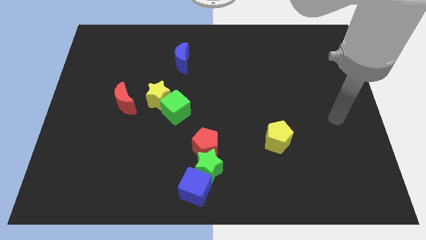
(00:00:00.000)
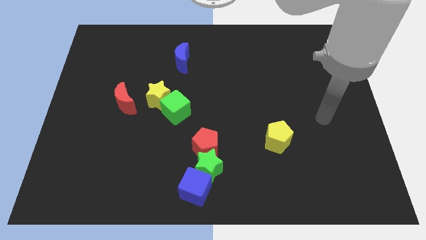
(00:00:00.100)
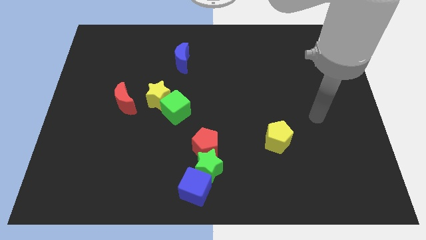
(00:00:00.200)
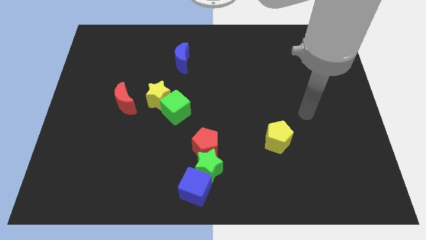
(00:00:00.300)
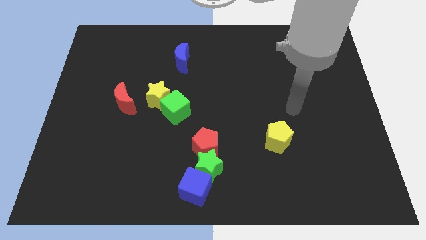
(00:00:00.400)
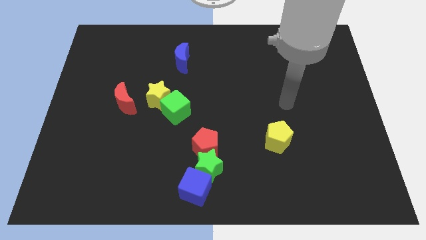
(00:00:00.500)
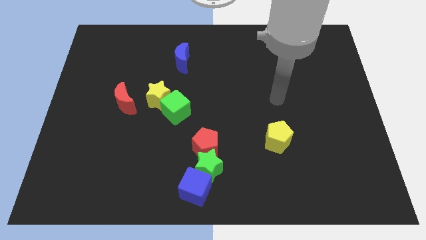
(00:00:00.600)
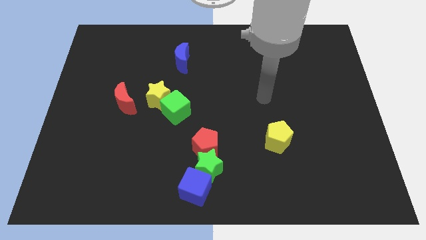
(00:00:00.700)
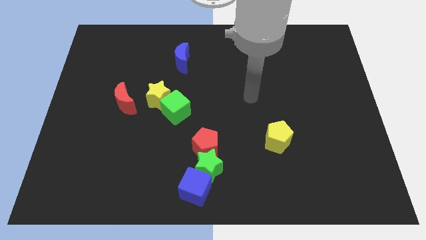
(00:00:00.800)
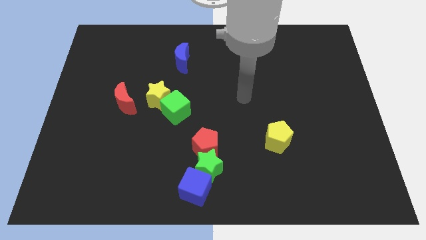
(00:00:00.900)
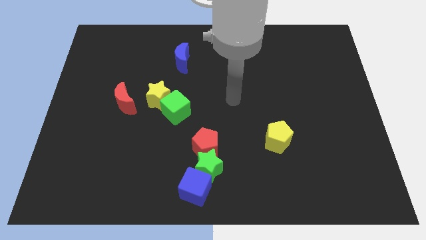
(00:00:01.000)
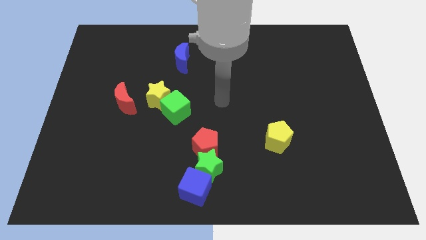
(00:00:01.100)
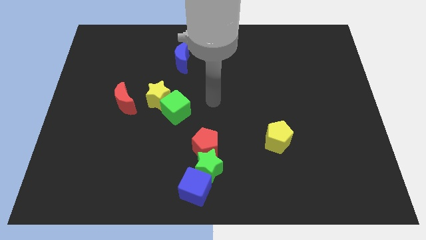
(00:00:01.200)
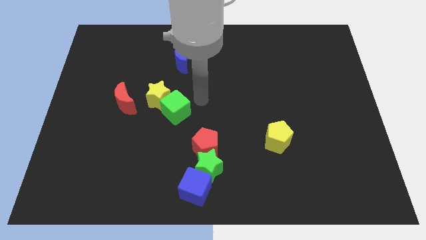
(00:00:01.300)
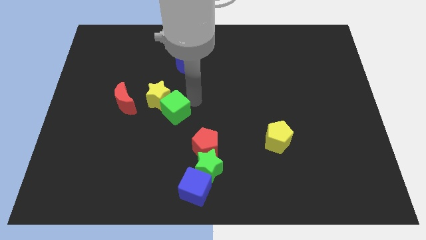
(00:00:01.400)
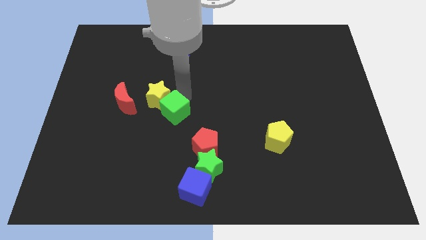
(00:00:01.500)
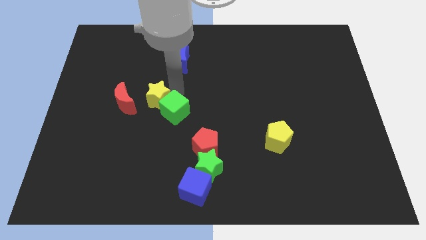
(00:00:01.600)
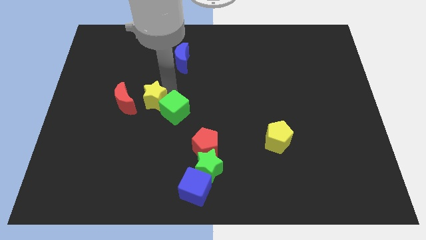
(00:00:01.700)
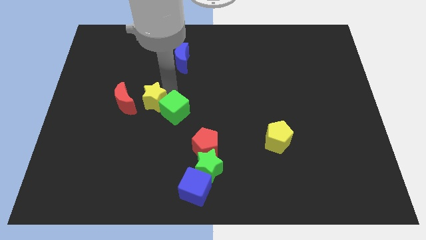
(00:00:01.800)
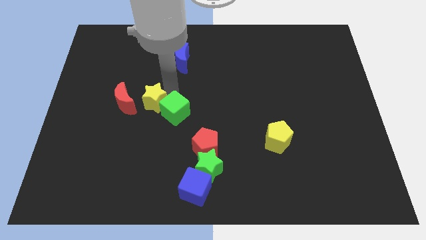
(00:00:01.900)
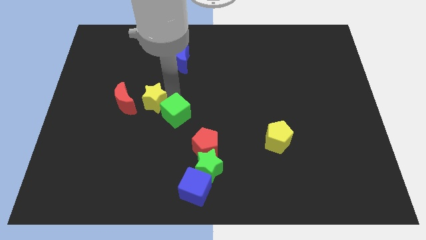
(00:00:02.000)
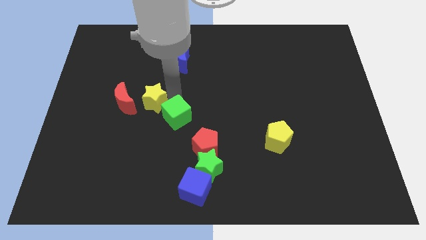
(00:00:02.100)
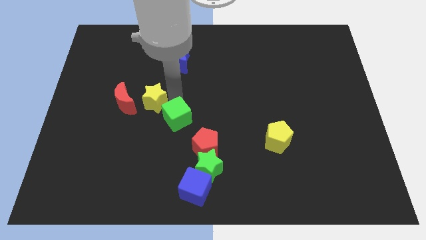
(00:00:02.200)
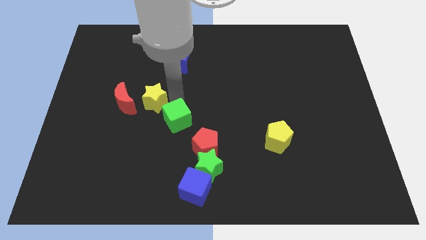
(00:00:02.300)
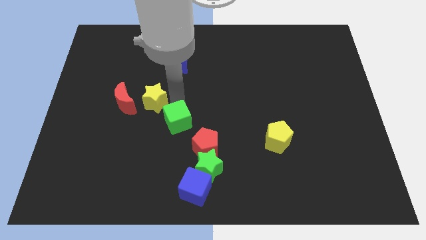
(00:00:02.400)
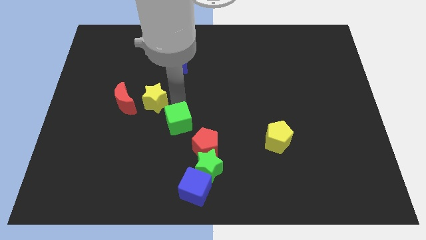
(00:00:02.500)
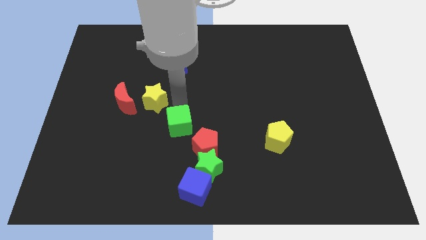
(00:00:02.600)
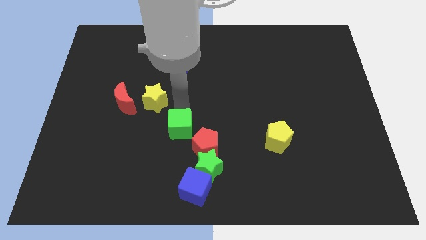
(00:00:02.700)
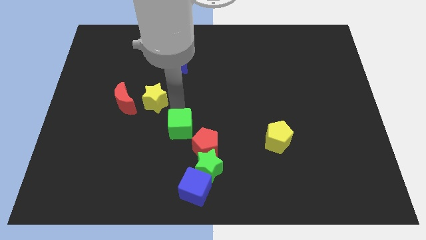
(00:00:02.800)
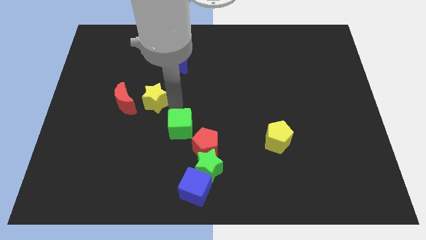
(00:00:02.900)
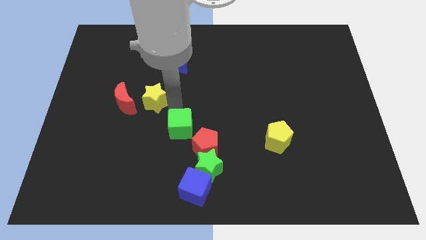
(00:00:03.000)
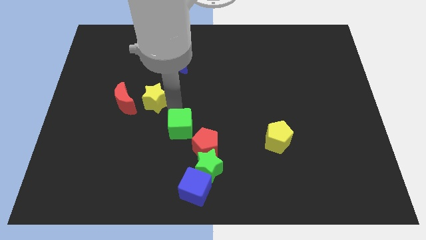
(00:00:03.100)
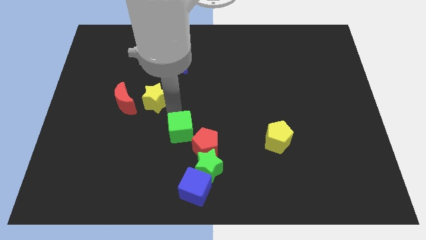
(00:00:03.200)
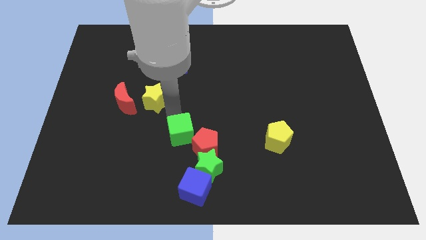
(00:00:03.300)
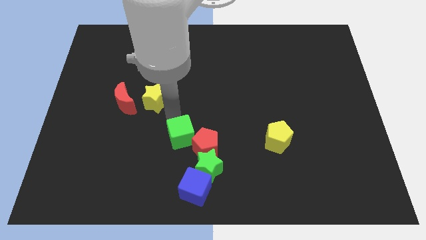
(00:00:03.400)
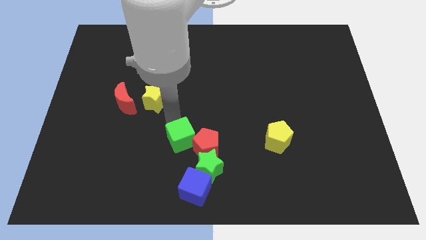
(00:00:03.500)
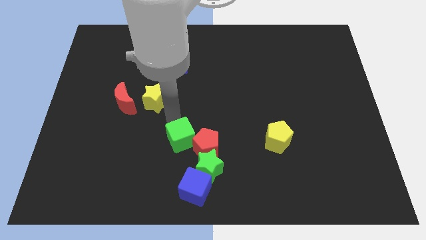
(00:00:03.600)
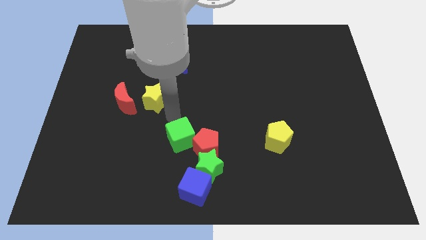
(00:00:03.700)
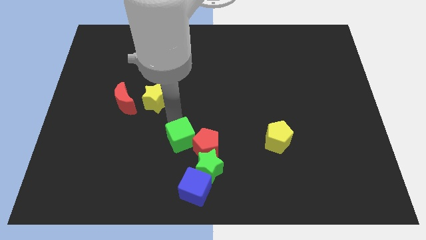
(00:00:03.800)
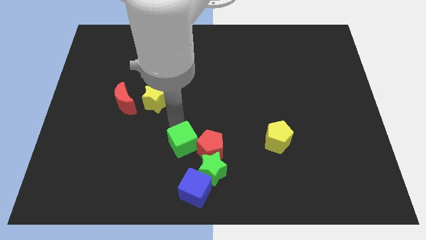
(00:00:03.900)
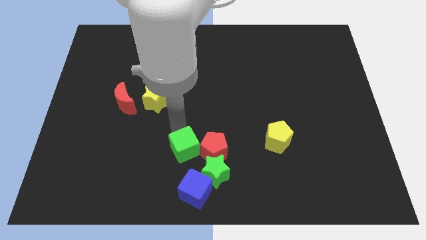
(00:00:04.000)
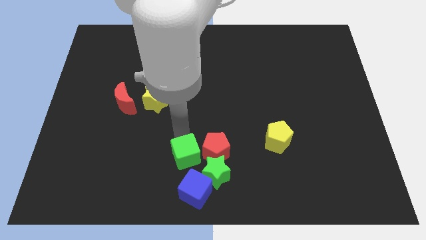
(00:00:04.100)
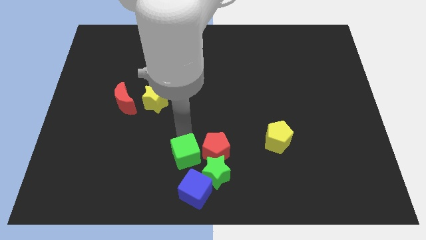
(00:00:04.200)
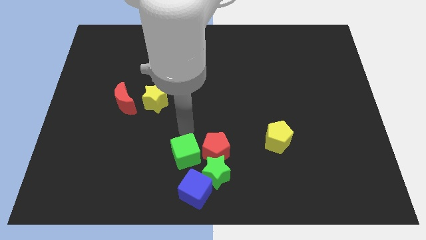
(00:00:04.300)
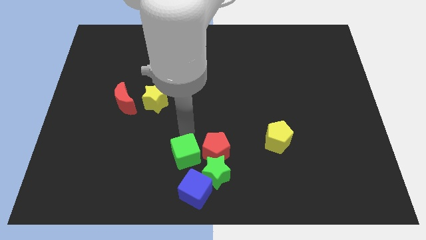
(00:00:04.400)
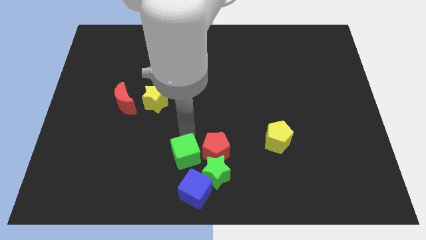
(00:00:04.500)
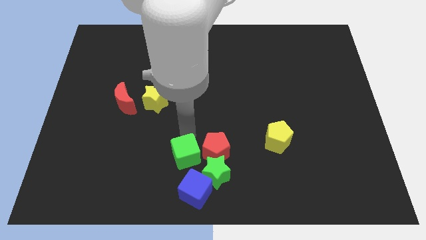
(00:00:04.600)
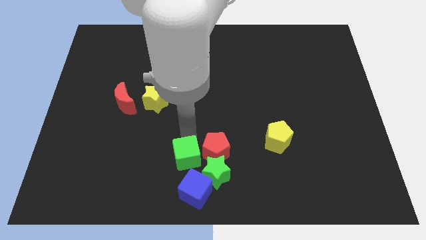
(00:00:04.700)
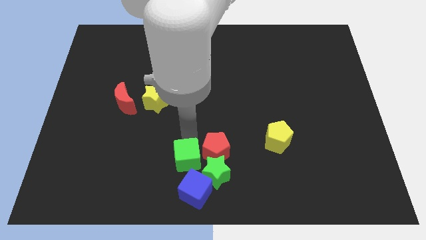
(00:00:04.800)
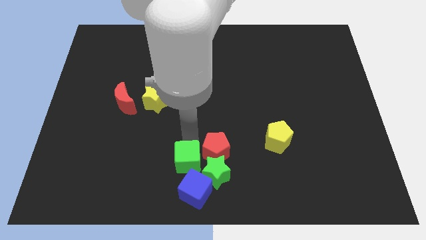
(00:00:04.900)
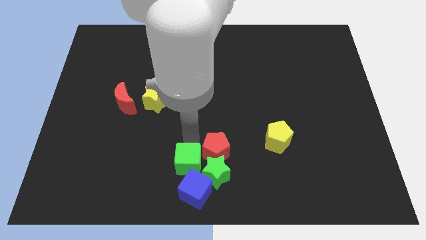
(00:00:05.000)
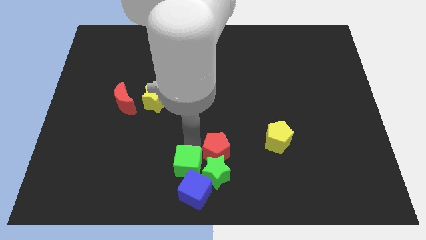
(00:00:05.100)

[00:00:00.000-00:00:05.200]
slide the green cube next to the blue cube

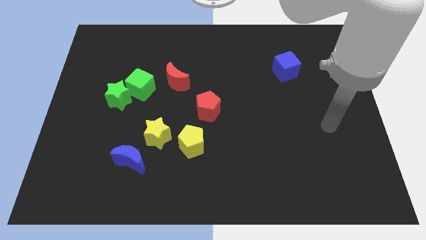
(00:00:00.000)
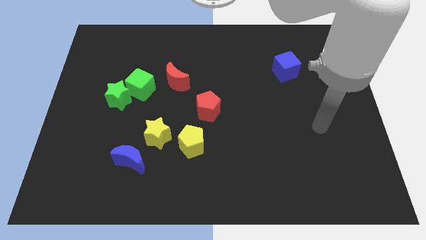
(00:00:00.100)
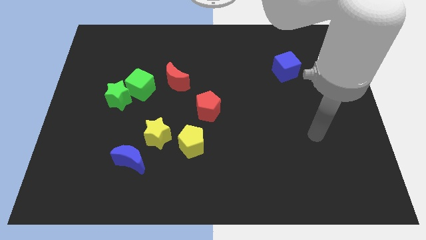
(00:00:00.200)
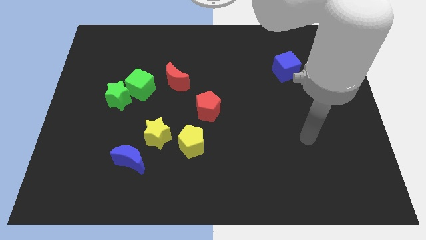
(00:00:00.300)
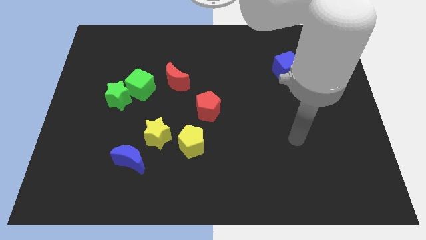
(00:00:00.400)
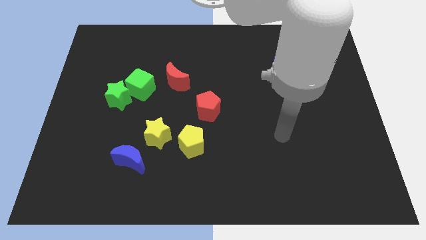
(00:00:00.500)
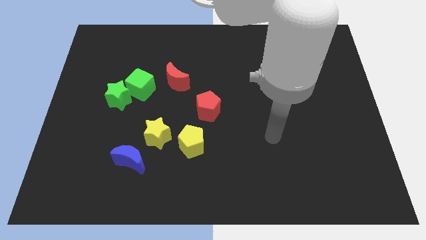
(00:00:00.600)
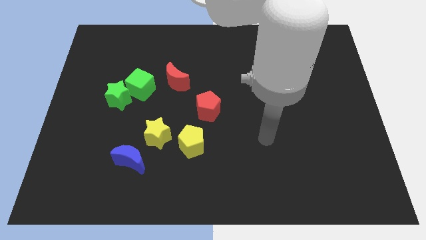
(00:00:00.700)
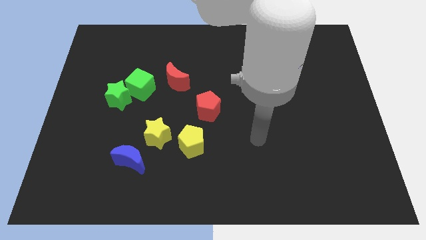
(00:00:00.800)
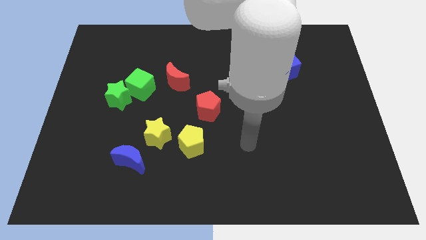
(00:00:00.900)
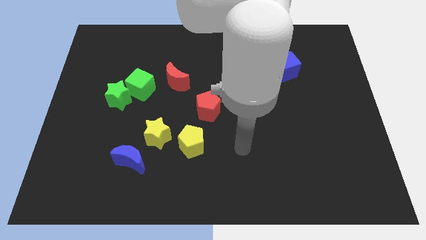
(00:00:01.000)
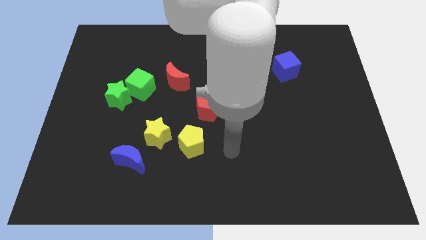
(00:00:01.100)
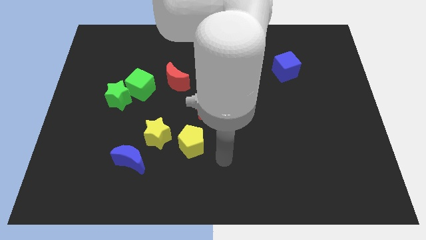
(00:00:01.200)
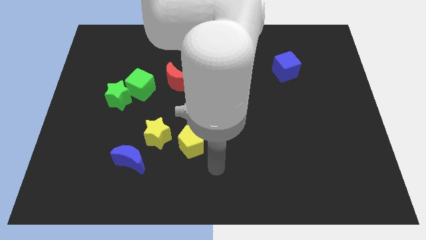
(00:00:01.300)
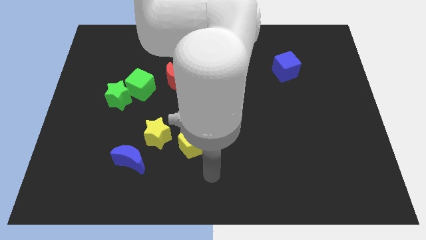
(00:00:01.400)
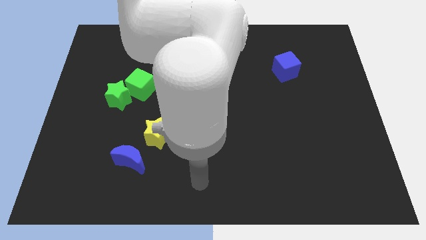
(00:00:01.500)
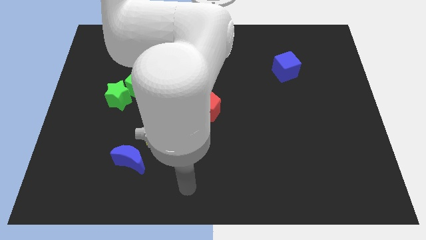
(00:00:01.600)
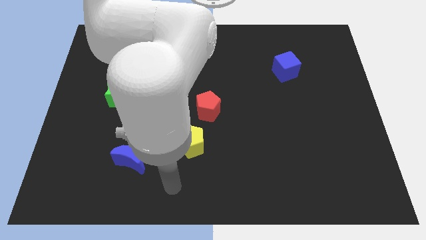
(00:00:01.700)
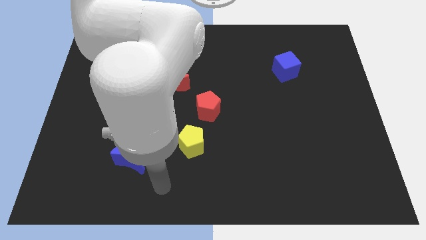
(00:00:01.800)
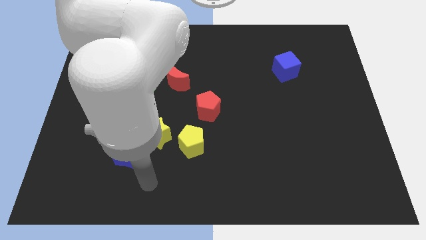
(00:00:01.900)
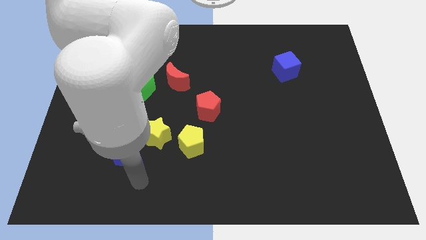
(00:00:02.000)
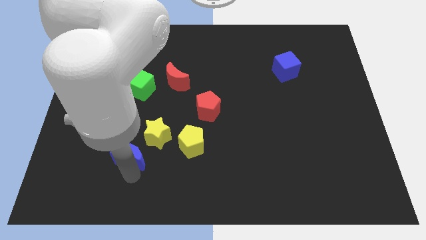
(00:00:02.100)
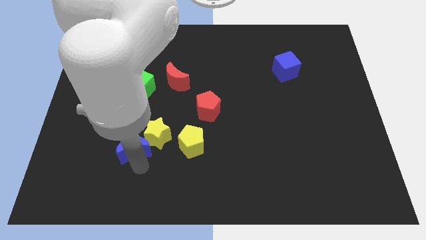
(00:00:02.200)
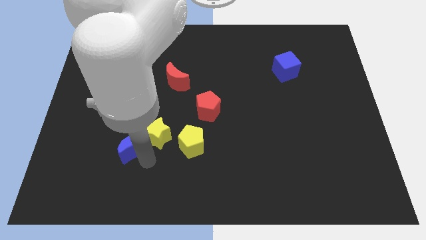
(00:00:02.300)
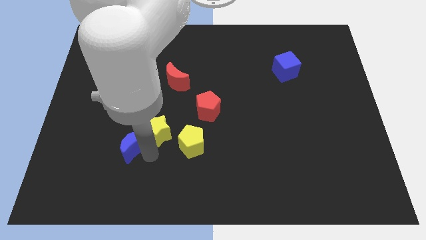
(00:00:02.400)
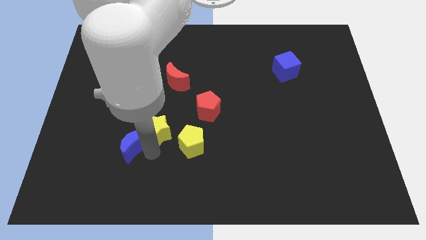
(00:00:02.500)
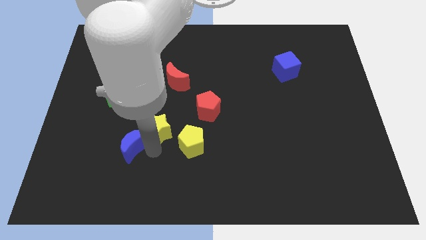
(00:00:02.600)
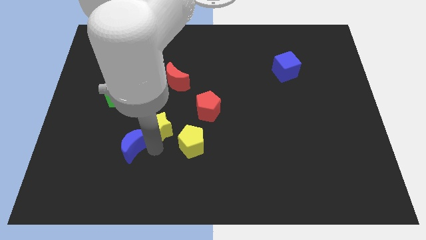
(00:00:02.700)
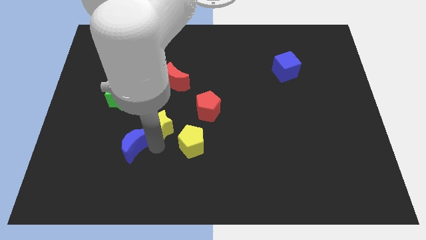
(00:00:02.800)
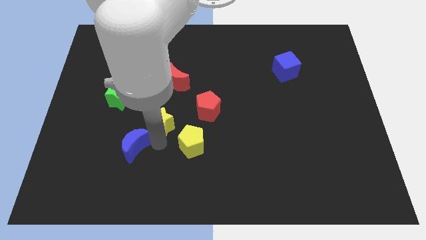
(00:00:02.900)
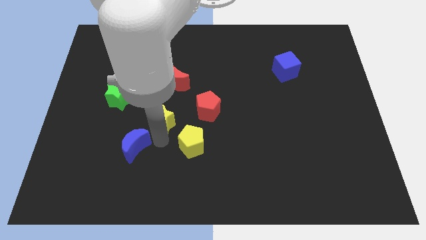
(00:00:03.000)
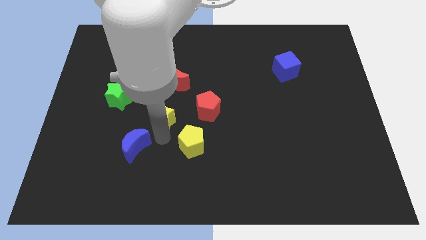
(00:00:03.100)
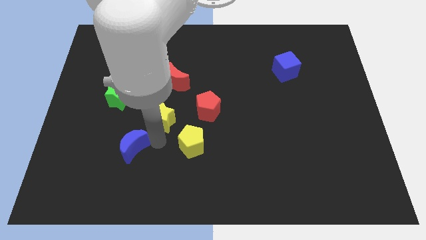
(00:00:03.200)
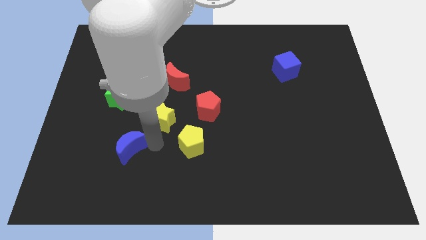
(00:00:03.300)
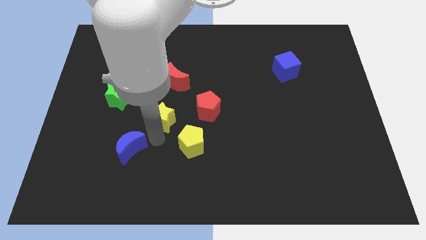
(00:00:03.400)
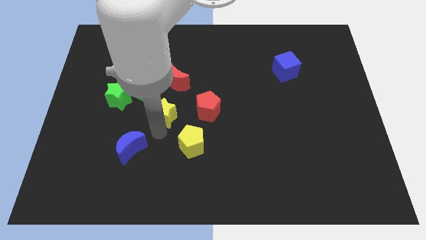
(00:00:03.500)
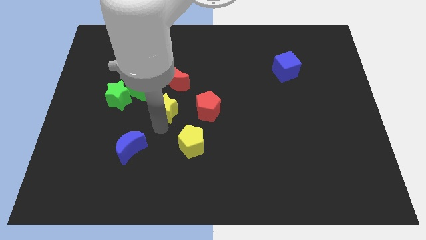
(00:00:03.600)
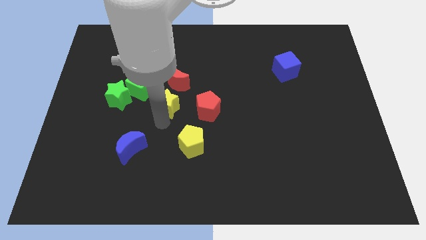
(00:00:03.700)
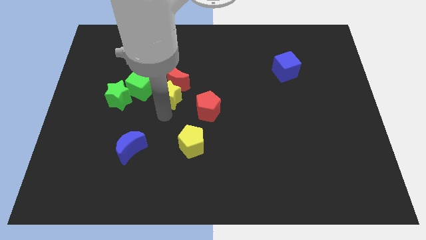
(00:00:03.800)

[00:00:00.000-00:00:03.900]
push the yellow star towards the red moon
